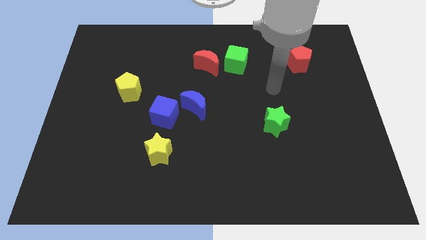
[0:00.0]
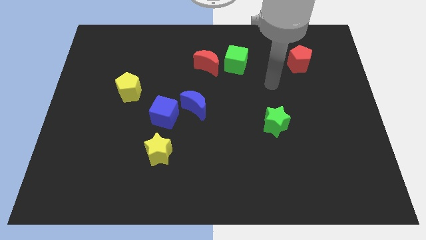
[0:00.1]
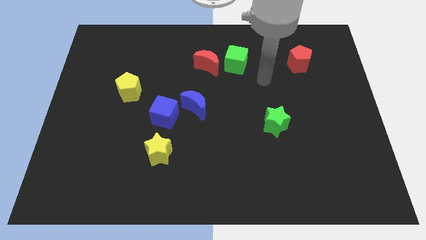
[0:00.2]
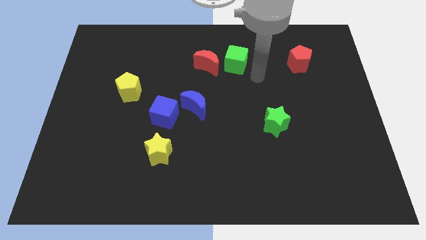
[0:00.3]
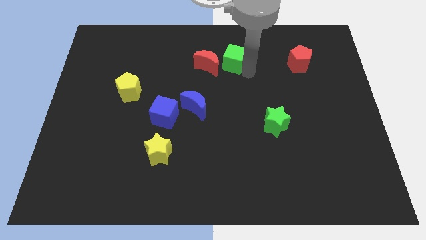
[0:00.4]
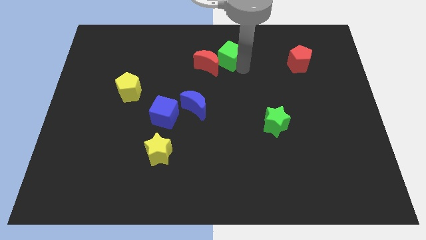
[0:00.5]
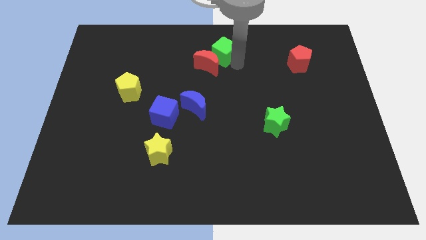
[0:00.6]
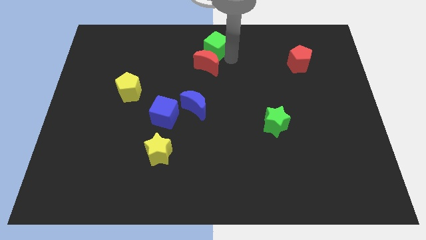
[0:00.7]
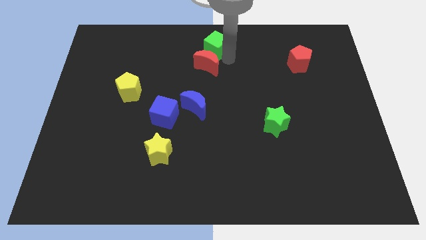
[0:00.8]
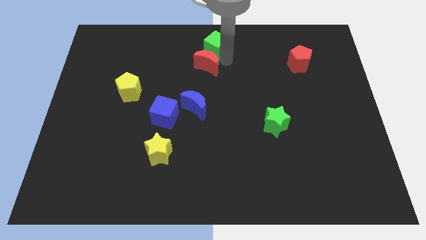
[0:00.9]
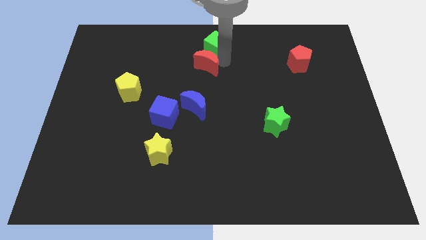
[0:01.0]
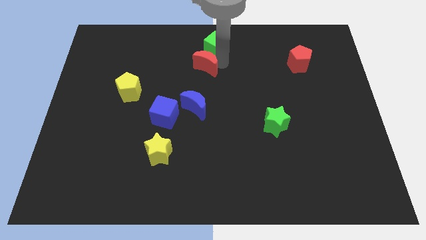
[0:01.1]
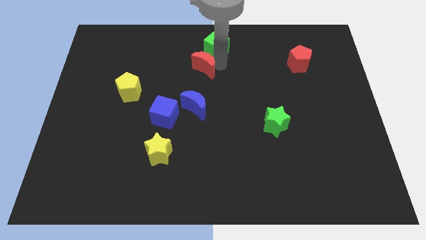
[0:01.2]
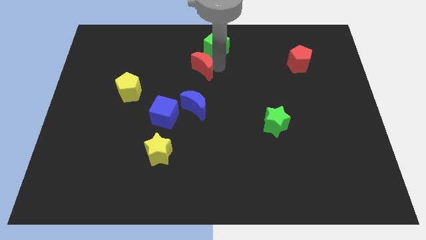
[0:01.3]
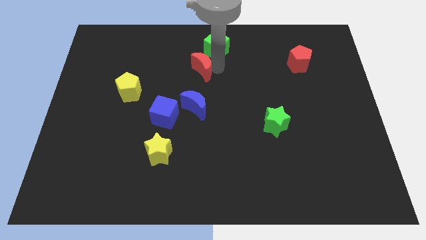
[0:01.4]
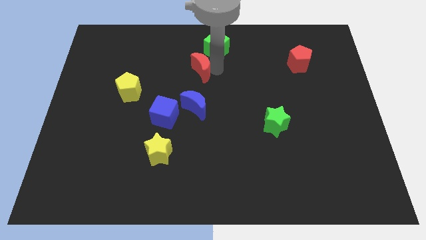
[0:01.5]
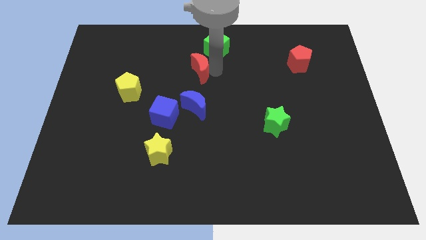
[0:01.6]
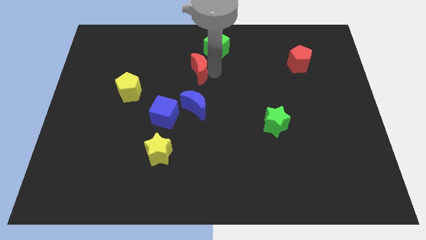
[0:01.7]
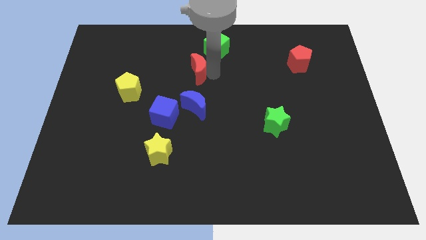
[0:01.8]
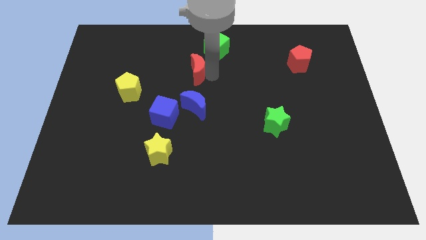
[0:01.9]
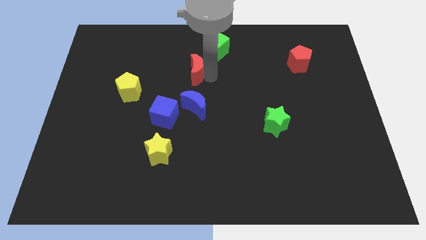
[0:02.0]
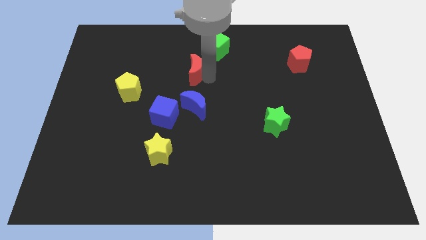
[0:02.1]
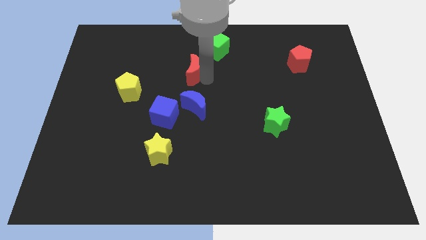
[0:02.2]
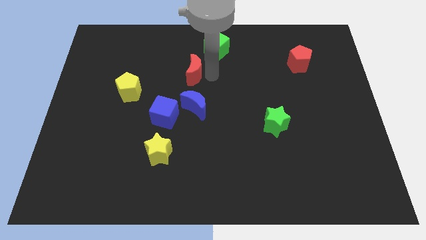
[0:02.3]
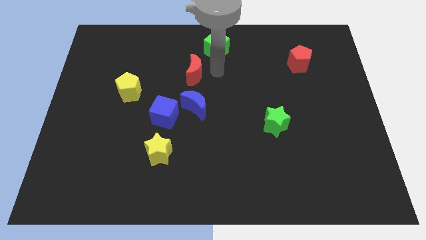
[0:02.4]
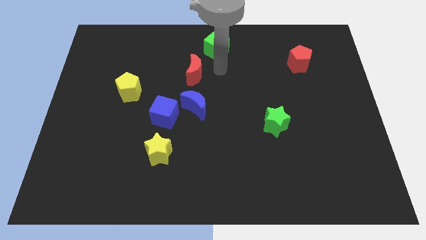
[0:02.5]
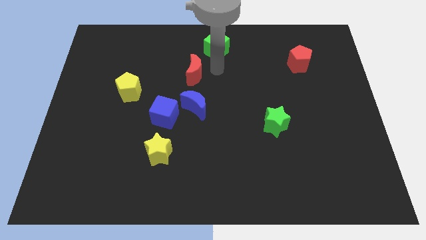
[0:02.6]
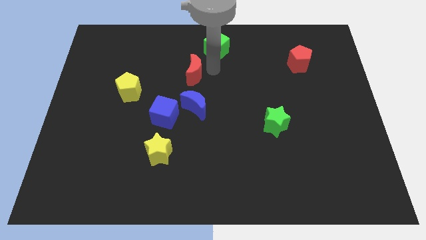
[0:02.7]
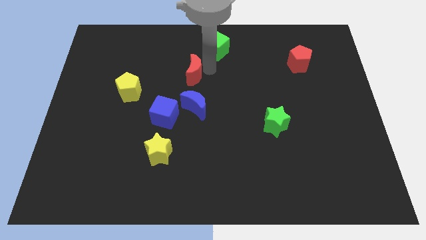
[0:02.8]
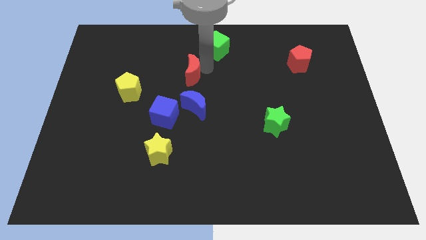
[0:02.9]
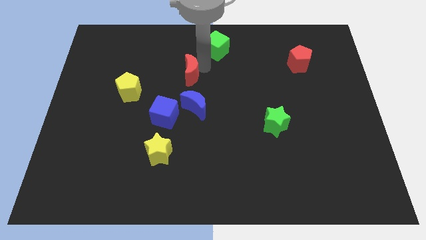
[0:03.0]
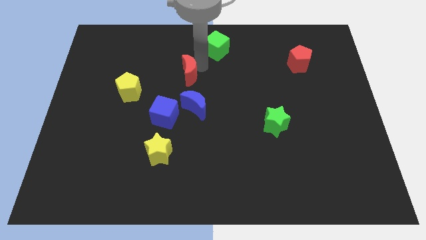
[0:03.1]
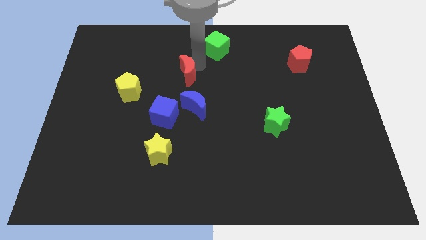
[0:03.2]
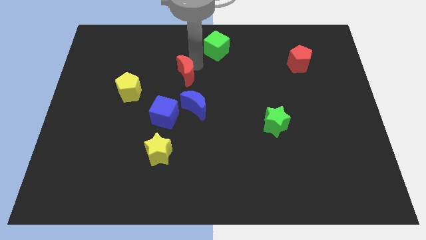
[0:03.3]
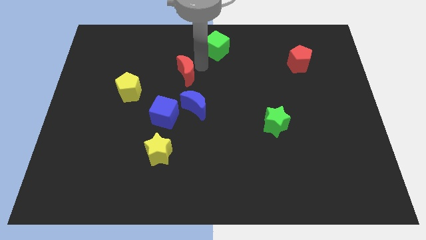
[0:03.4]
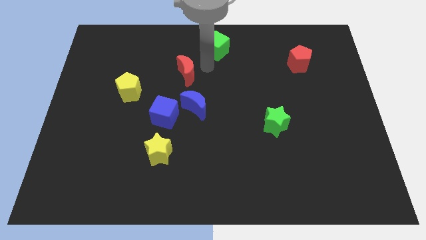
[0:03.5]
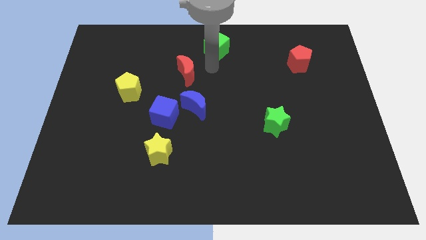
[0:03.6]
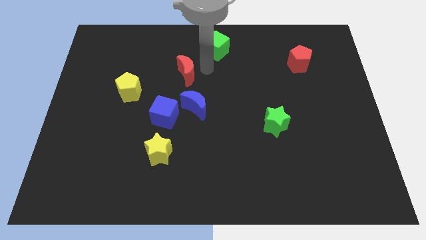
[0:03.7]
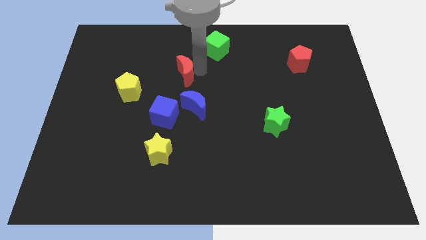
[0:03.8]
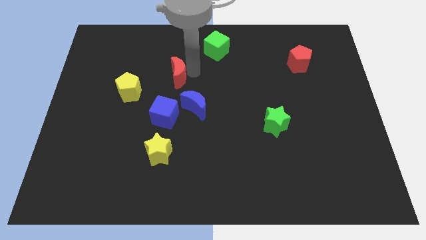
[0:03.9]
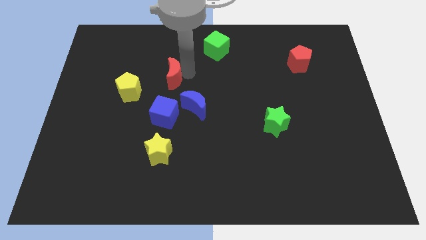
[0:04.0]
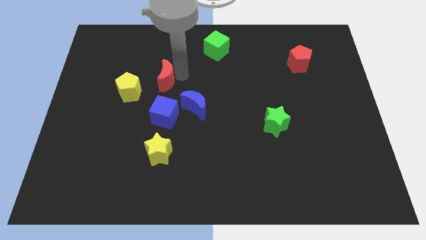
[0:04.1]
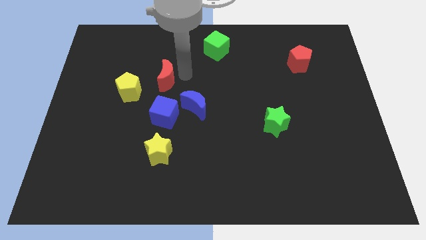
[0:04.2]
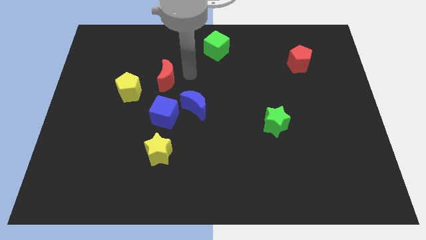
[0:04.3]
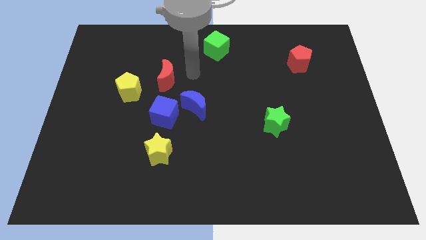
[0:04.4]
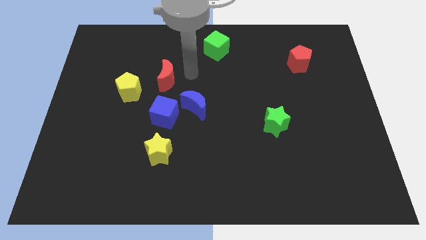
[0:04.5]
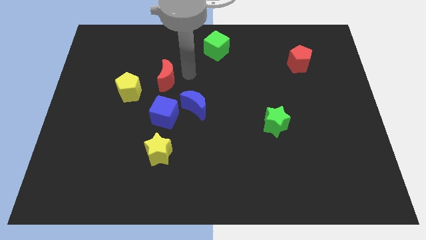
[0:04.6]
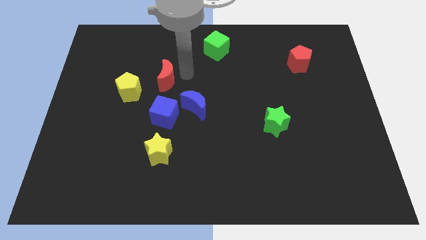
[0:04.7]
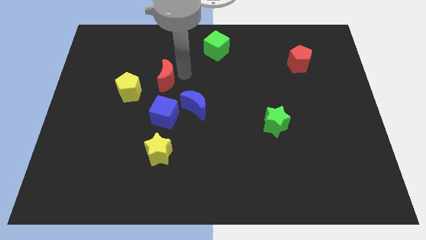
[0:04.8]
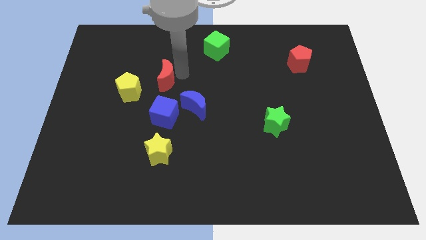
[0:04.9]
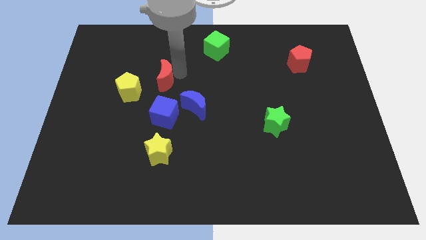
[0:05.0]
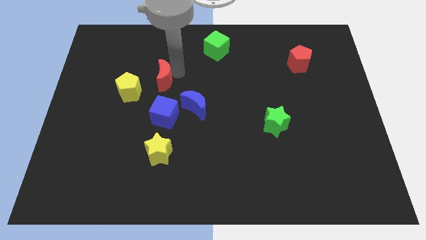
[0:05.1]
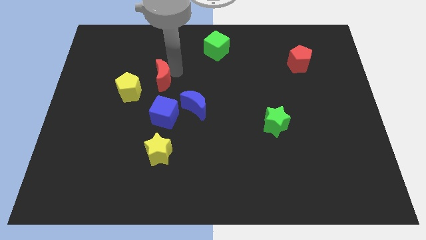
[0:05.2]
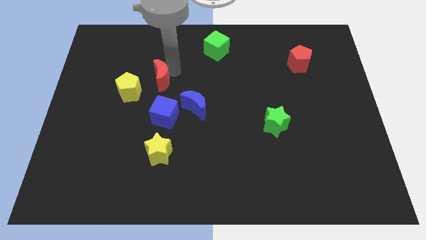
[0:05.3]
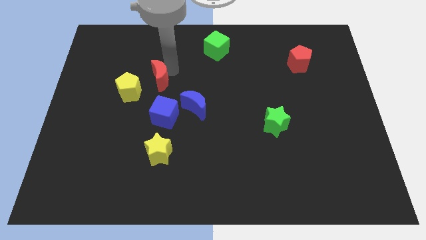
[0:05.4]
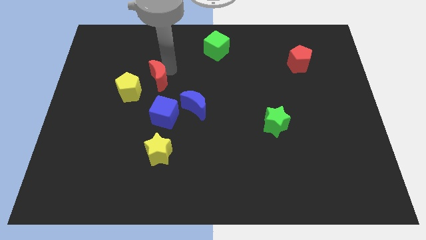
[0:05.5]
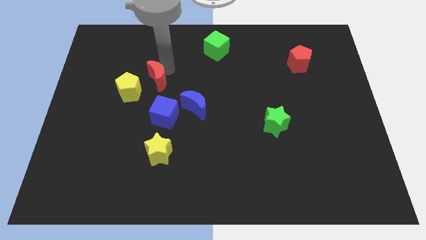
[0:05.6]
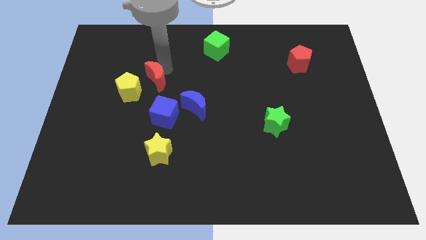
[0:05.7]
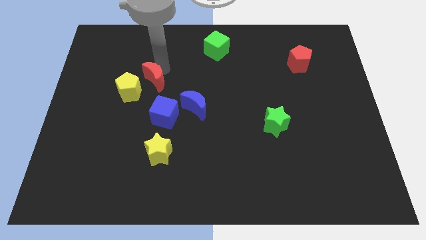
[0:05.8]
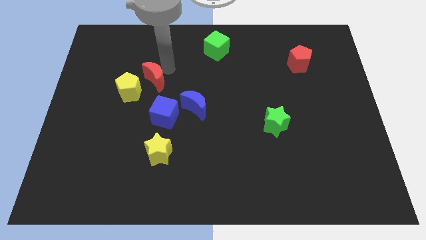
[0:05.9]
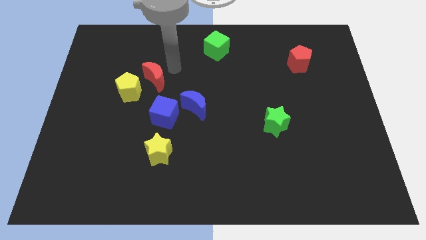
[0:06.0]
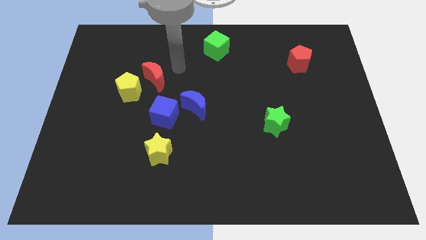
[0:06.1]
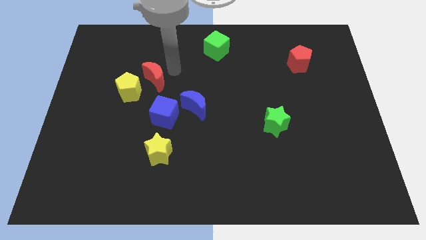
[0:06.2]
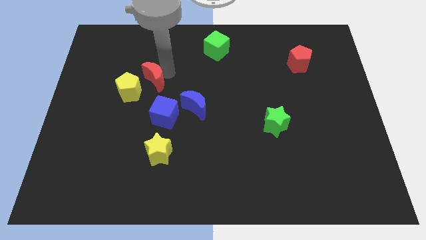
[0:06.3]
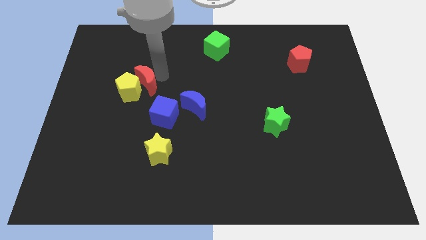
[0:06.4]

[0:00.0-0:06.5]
push the red moon next to the yellow pentagon

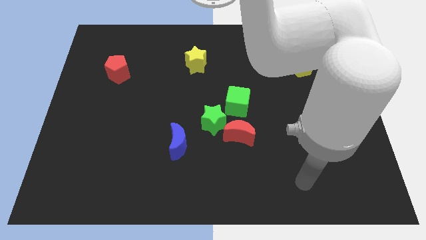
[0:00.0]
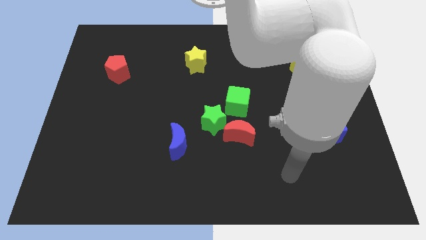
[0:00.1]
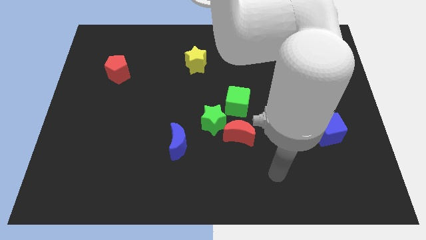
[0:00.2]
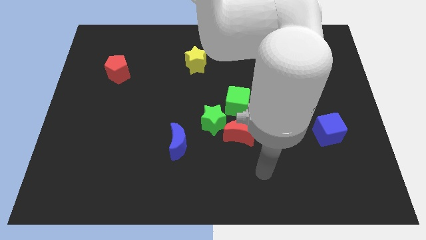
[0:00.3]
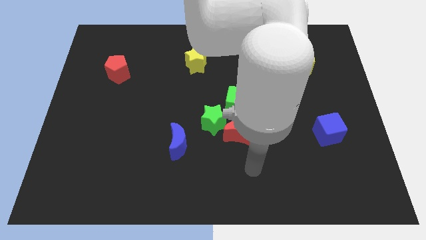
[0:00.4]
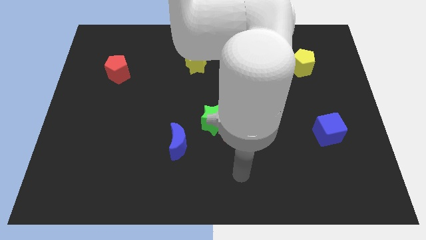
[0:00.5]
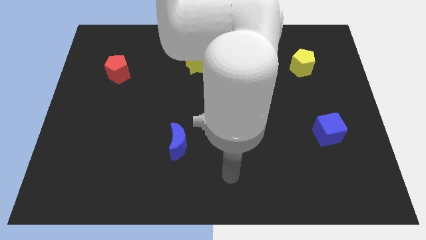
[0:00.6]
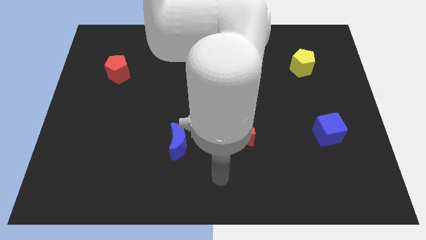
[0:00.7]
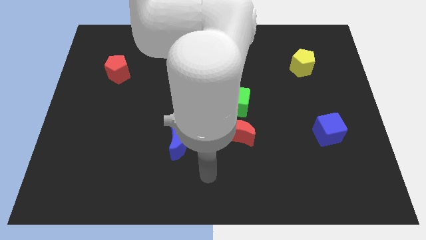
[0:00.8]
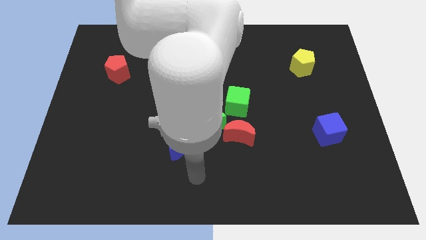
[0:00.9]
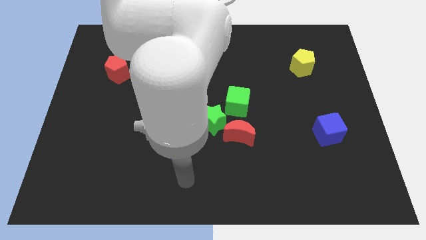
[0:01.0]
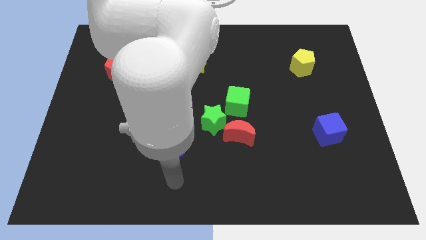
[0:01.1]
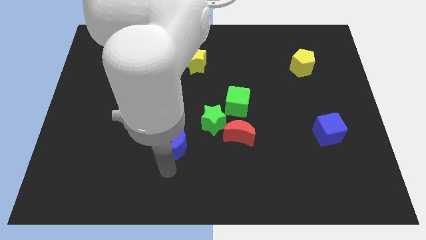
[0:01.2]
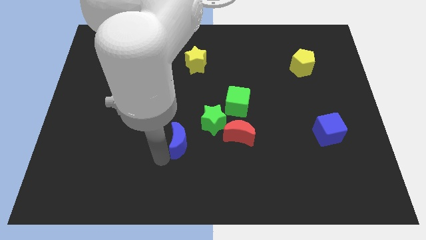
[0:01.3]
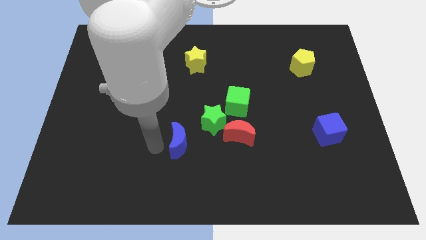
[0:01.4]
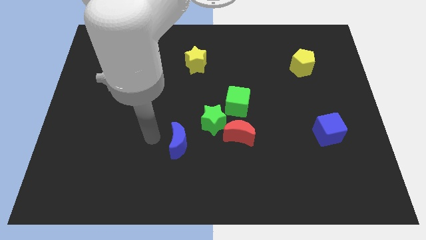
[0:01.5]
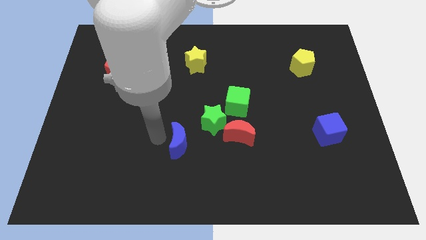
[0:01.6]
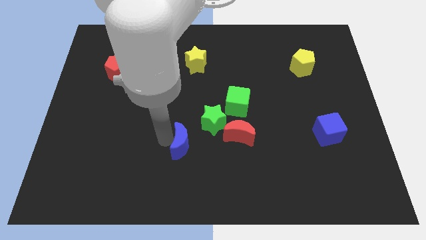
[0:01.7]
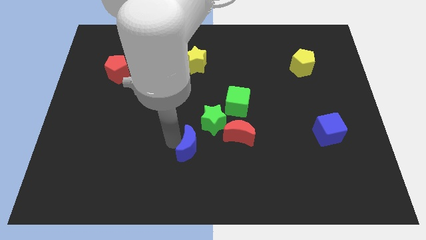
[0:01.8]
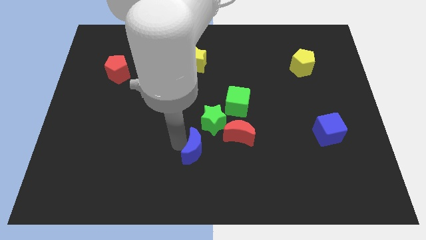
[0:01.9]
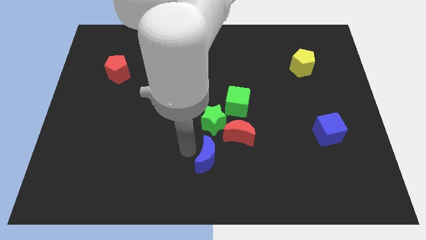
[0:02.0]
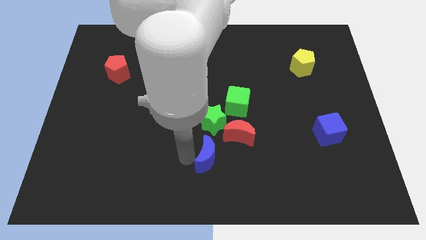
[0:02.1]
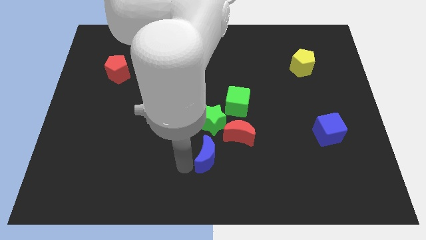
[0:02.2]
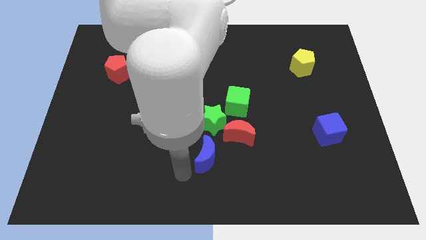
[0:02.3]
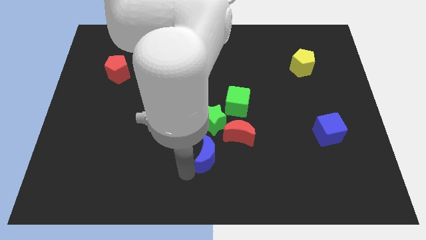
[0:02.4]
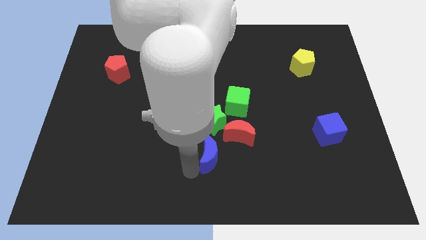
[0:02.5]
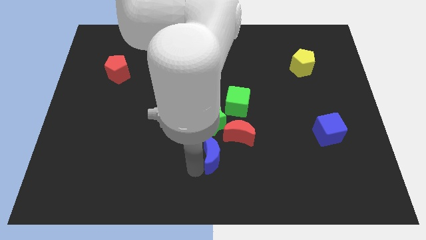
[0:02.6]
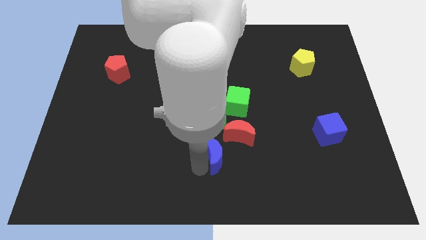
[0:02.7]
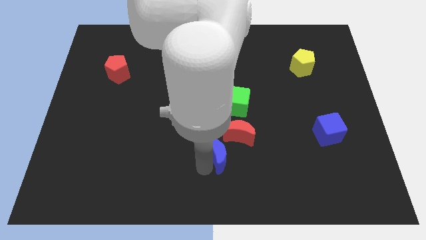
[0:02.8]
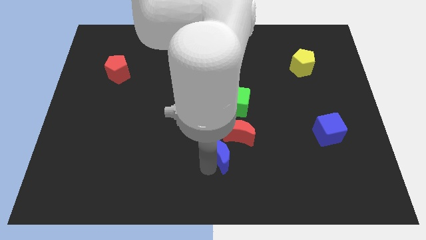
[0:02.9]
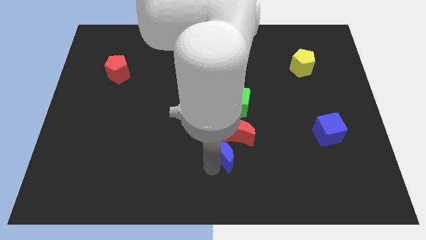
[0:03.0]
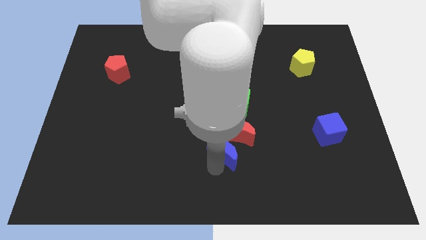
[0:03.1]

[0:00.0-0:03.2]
move the blue moon to the red moon
